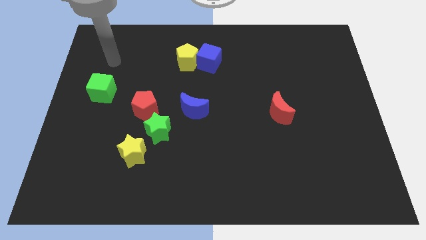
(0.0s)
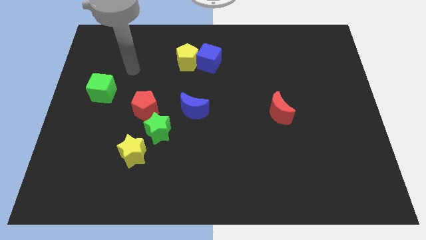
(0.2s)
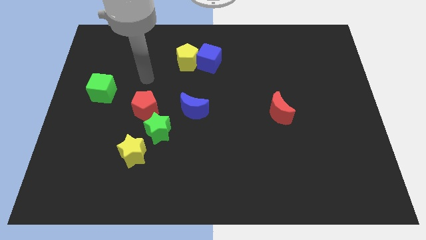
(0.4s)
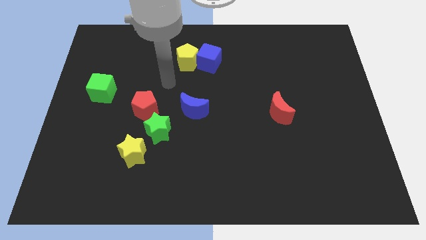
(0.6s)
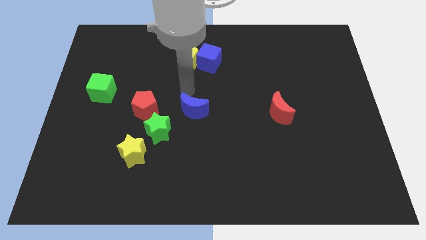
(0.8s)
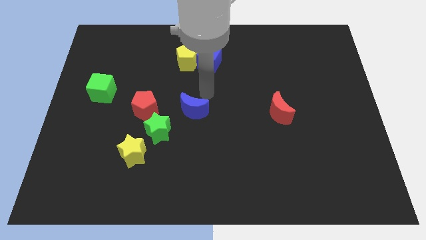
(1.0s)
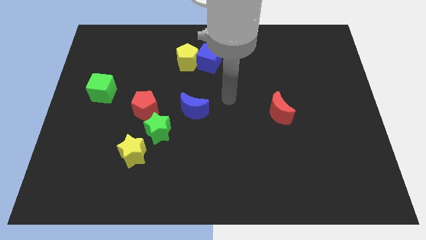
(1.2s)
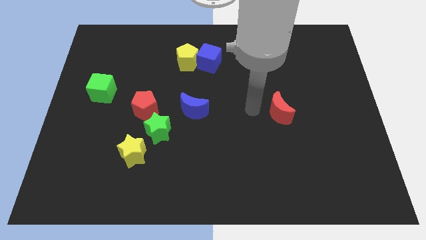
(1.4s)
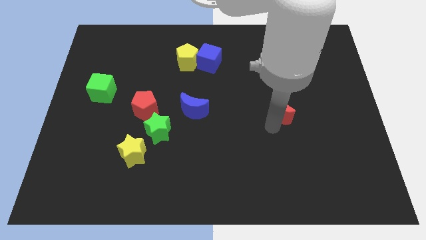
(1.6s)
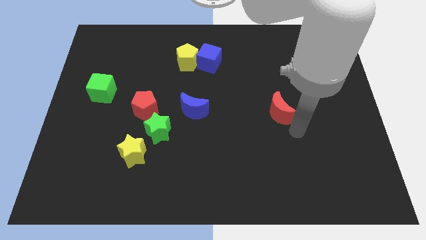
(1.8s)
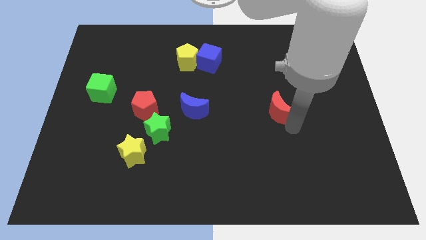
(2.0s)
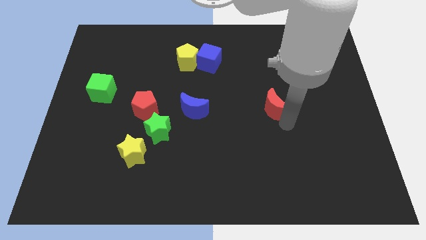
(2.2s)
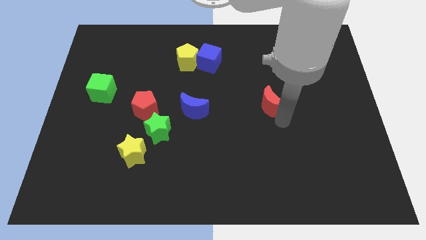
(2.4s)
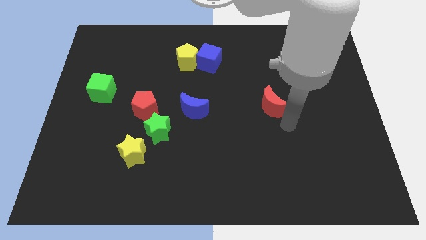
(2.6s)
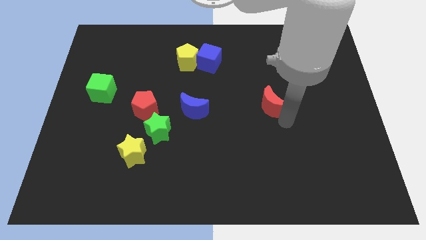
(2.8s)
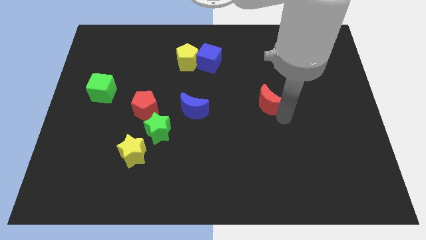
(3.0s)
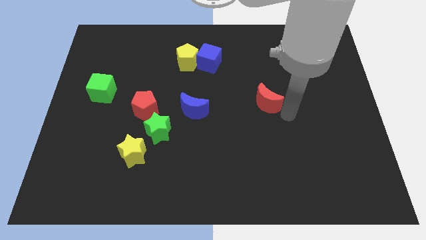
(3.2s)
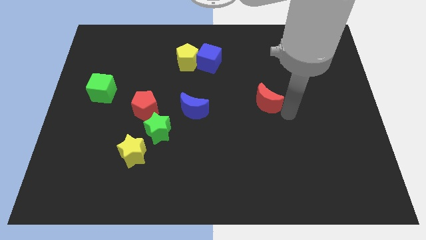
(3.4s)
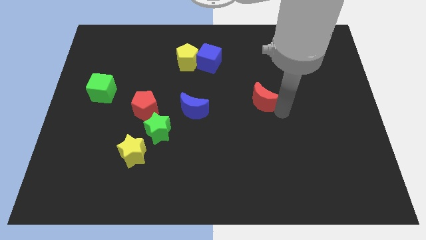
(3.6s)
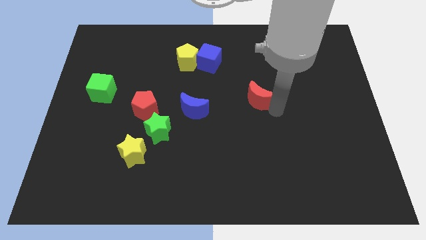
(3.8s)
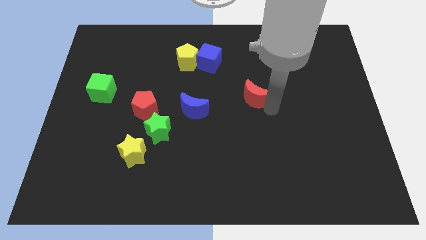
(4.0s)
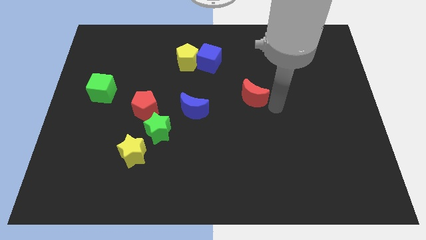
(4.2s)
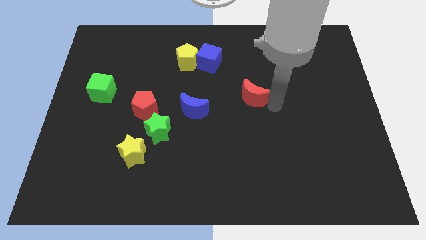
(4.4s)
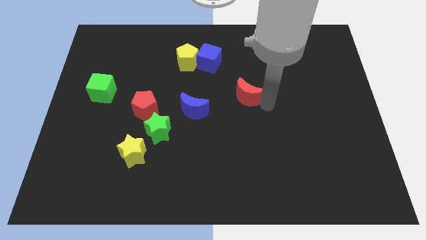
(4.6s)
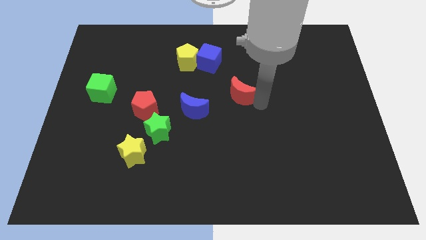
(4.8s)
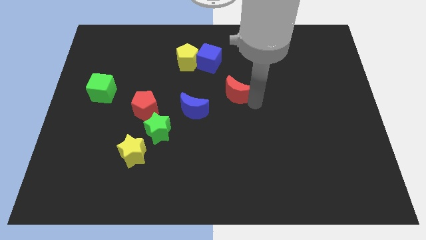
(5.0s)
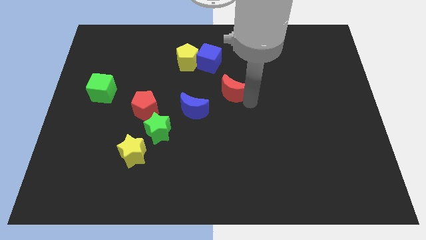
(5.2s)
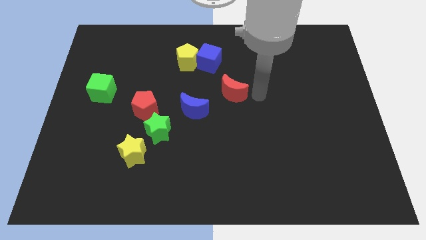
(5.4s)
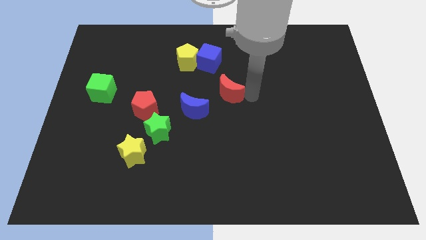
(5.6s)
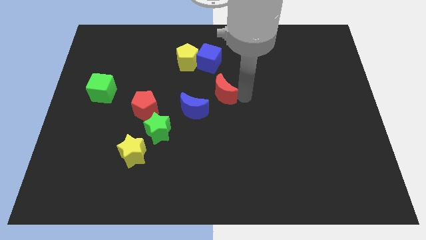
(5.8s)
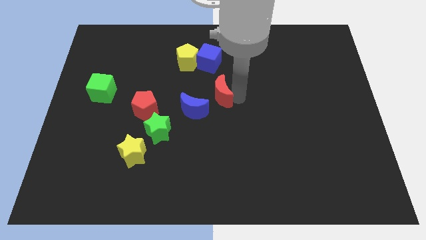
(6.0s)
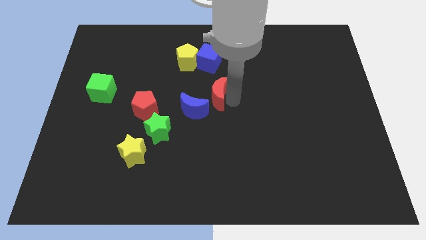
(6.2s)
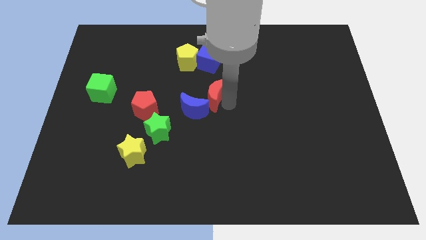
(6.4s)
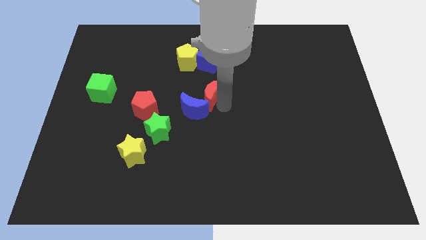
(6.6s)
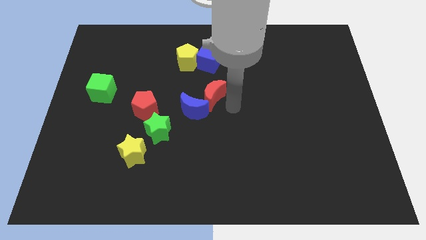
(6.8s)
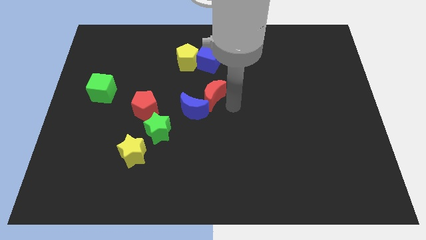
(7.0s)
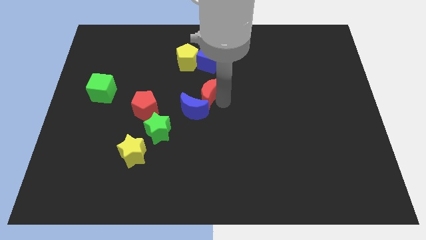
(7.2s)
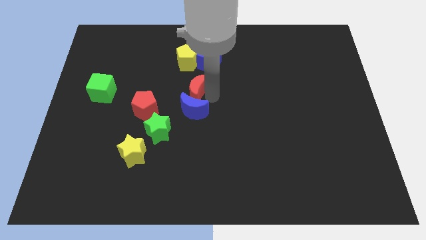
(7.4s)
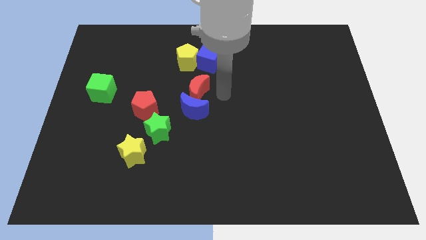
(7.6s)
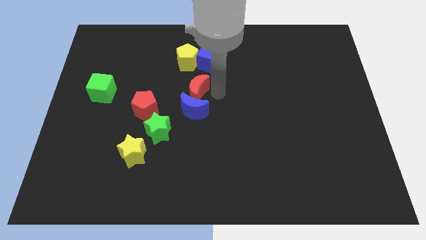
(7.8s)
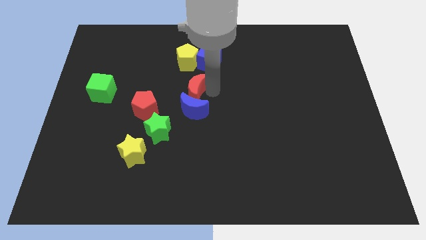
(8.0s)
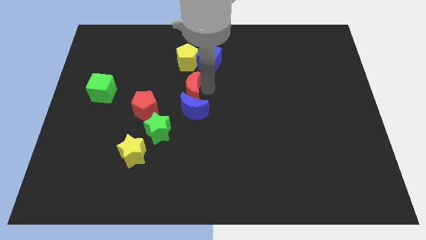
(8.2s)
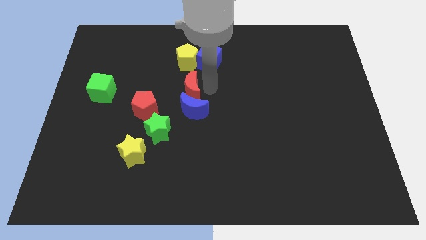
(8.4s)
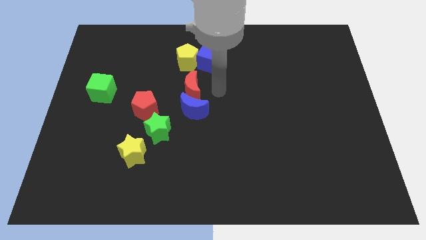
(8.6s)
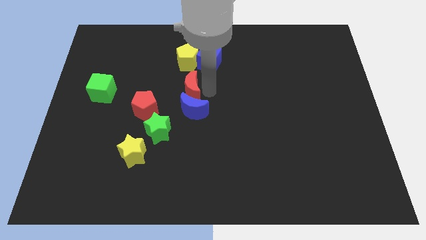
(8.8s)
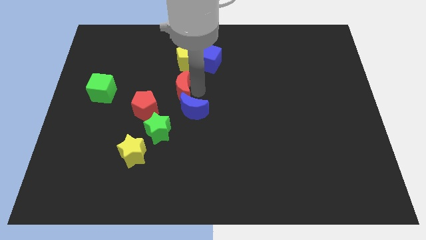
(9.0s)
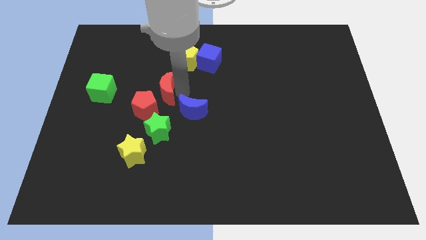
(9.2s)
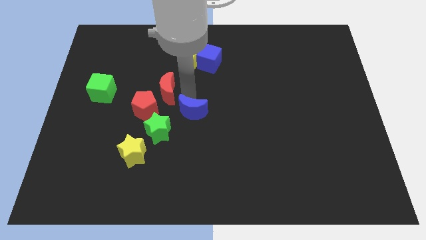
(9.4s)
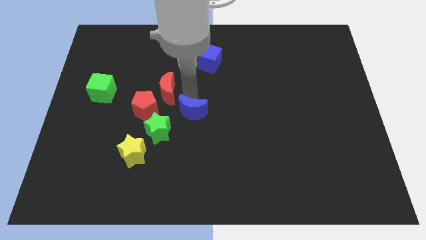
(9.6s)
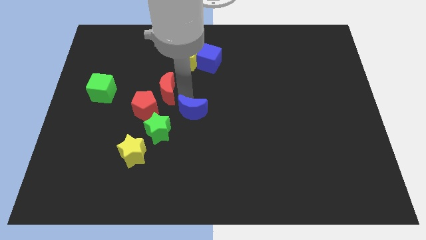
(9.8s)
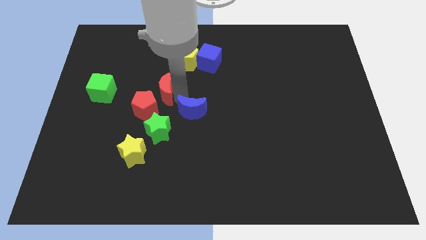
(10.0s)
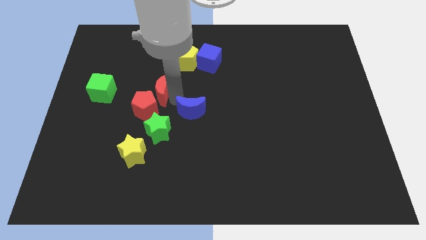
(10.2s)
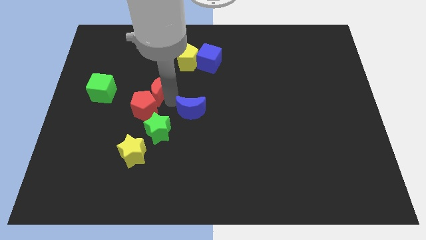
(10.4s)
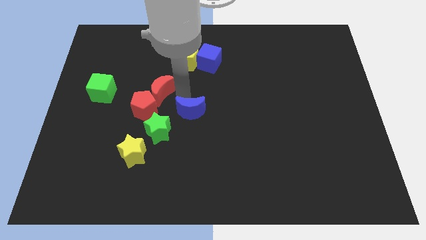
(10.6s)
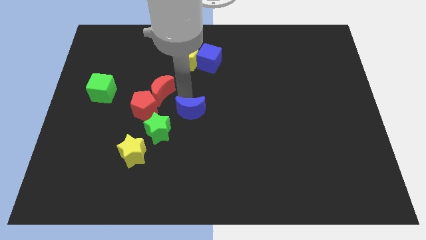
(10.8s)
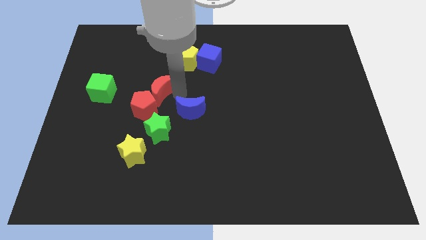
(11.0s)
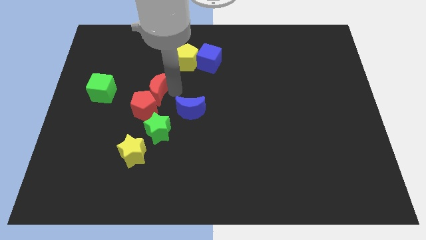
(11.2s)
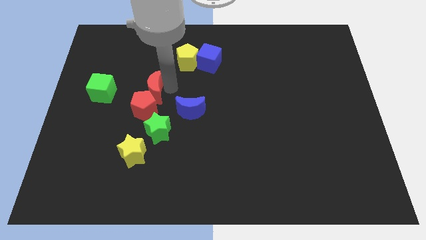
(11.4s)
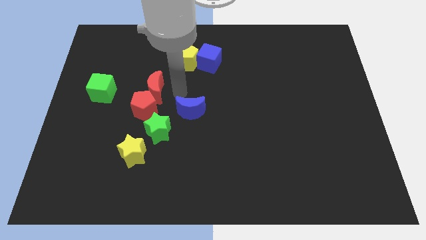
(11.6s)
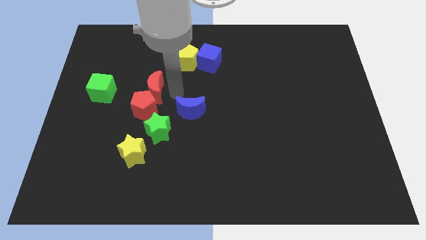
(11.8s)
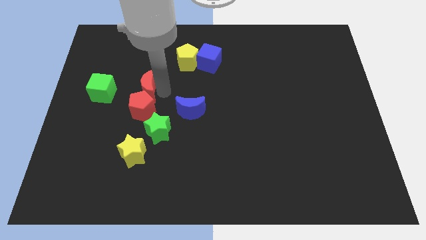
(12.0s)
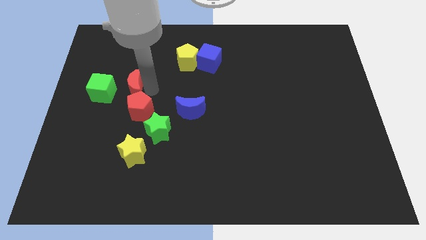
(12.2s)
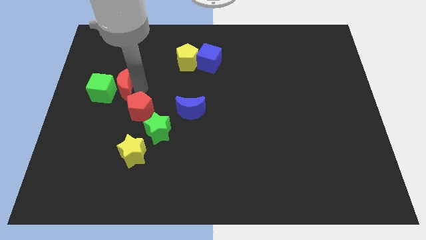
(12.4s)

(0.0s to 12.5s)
move the red moon next to the green cube

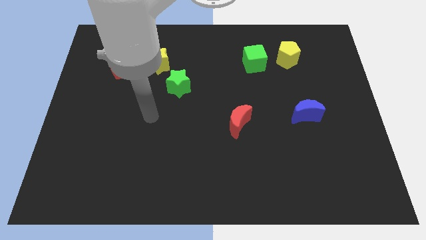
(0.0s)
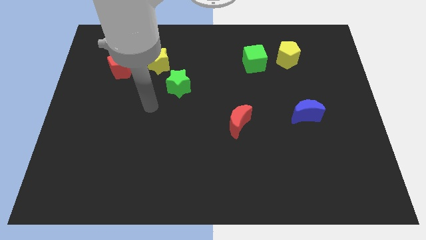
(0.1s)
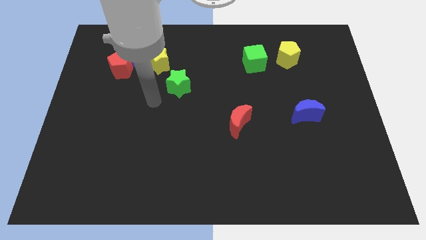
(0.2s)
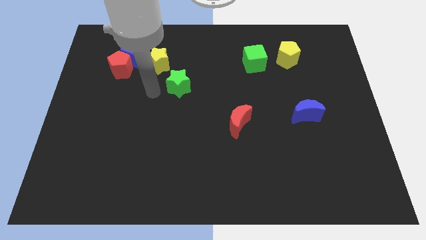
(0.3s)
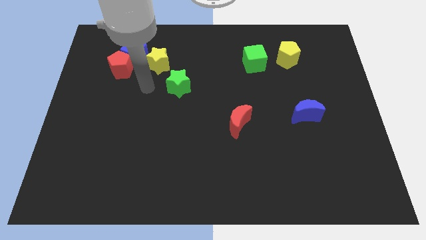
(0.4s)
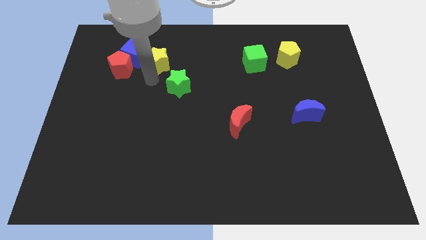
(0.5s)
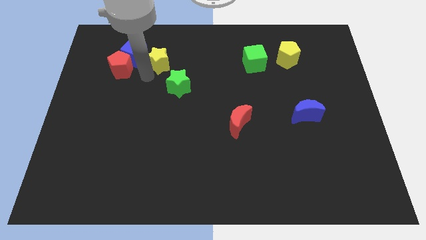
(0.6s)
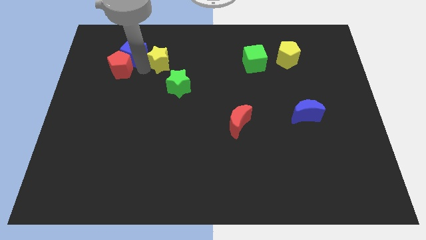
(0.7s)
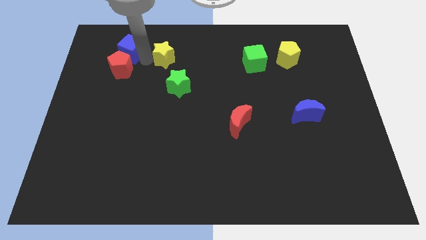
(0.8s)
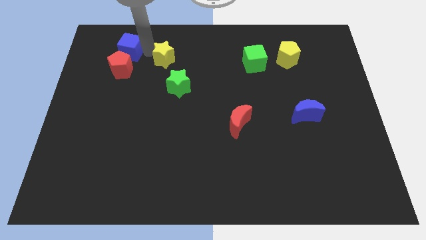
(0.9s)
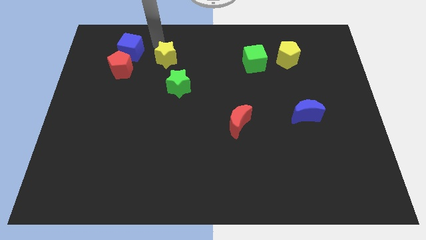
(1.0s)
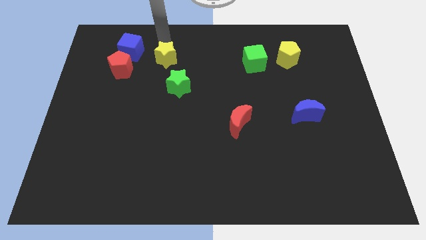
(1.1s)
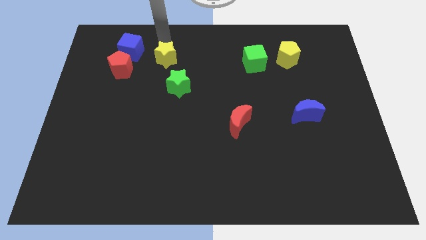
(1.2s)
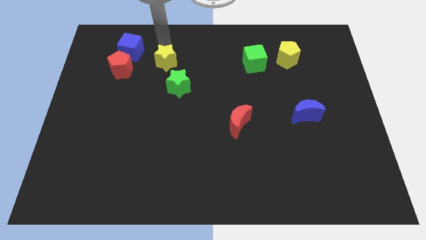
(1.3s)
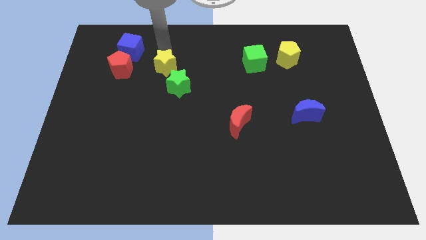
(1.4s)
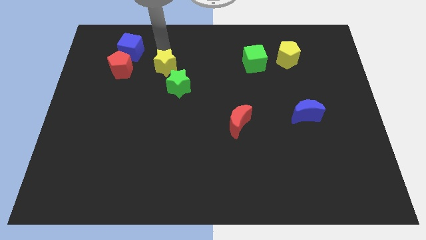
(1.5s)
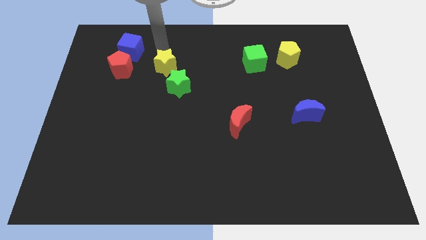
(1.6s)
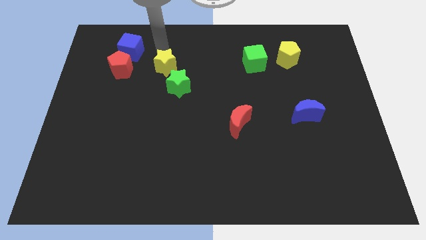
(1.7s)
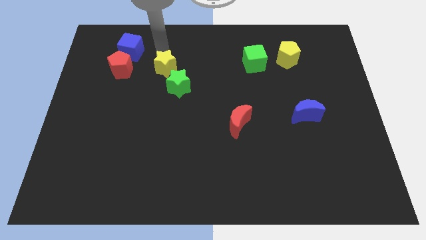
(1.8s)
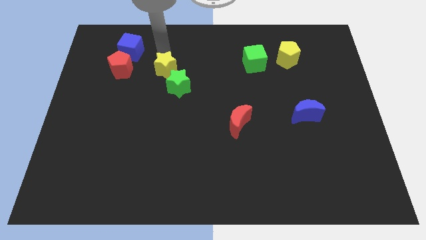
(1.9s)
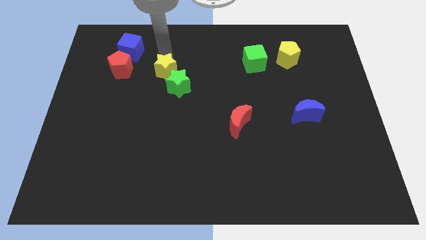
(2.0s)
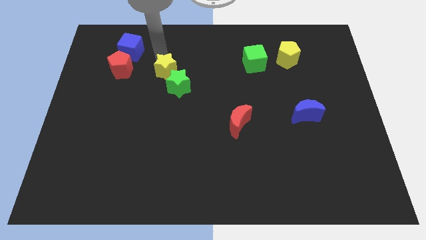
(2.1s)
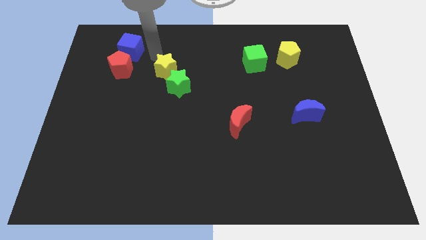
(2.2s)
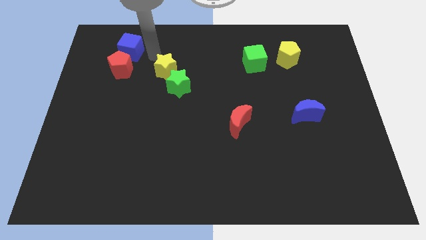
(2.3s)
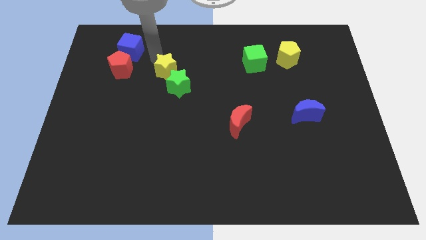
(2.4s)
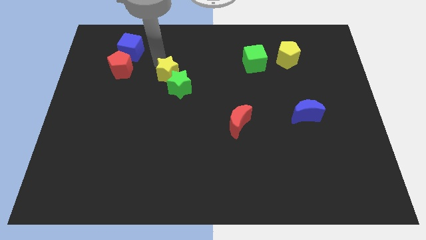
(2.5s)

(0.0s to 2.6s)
push the yellow star next to the green star
